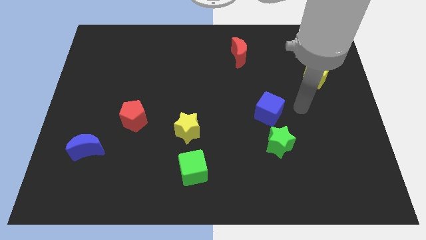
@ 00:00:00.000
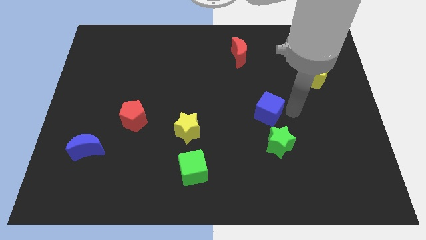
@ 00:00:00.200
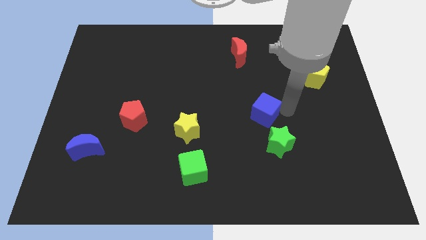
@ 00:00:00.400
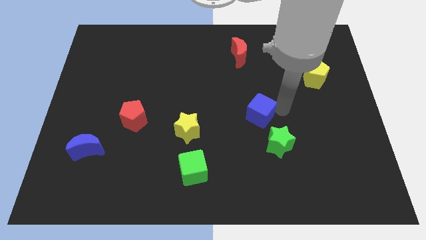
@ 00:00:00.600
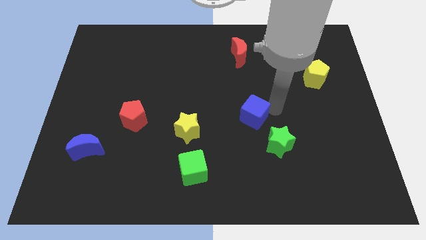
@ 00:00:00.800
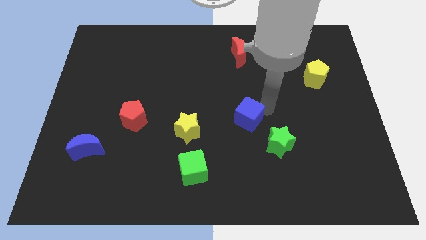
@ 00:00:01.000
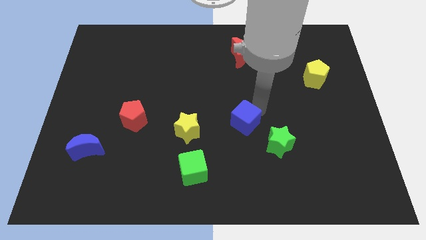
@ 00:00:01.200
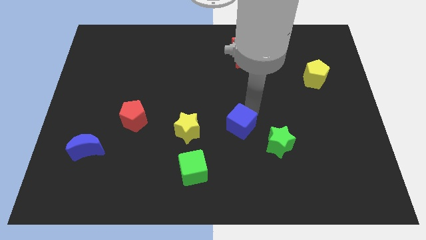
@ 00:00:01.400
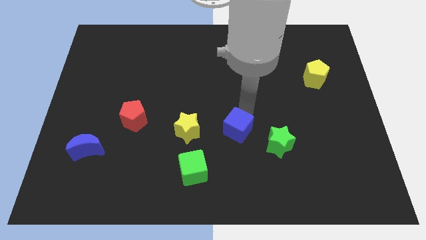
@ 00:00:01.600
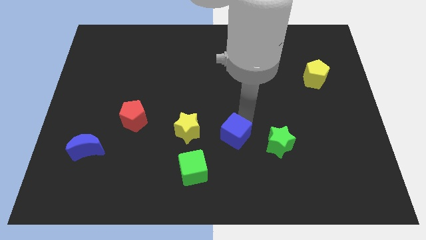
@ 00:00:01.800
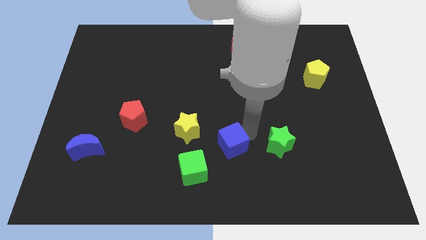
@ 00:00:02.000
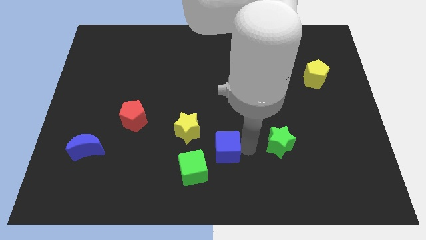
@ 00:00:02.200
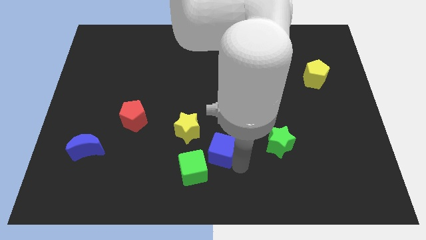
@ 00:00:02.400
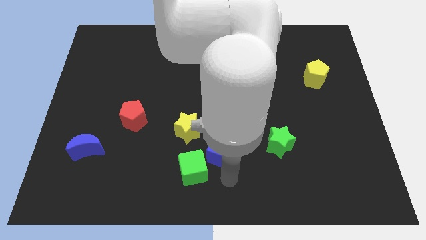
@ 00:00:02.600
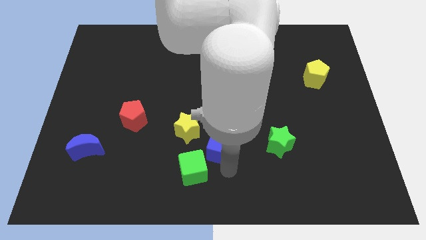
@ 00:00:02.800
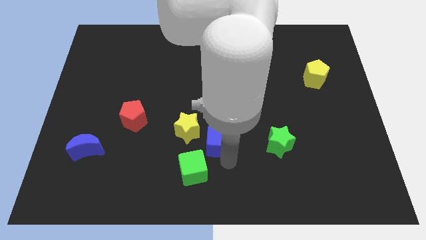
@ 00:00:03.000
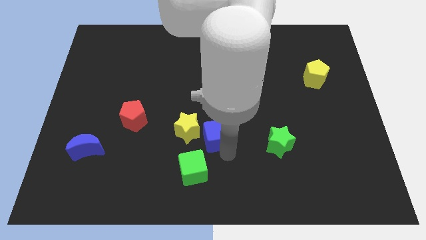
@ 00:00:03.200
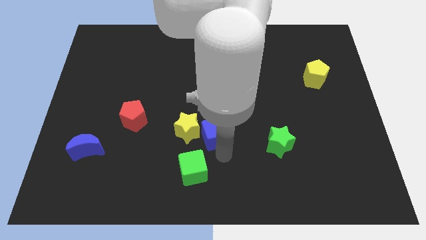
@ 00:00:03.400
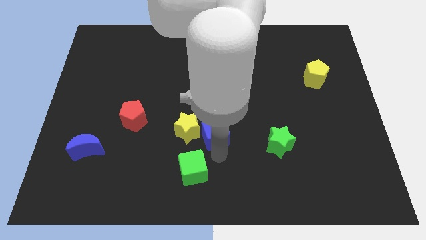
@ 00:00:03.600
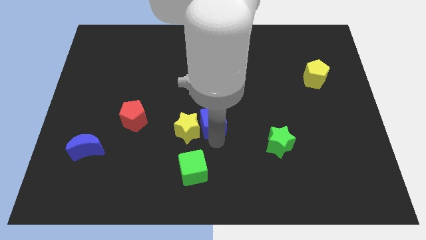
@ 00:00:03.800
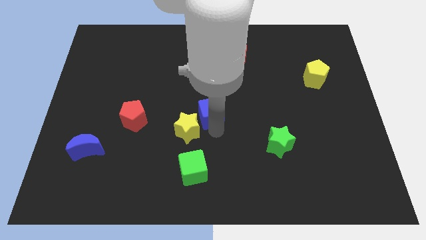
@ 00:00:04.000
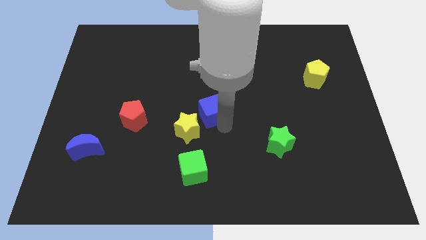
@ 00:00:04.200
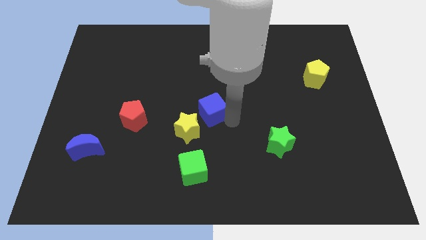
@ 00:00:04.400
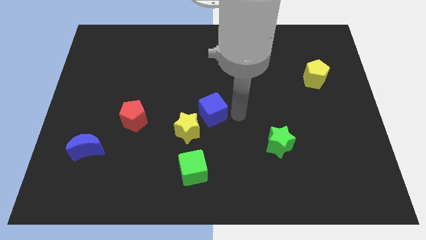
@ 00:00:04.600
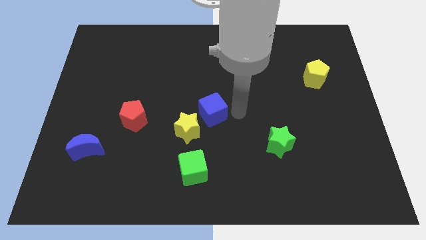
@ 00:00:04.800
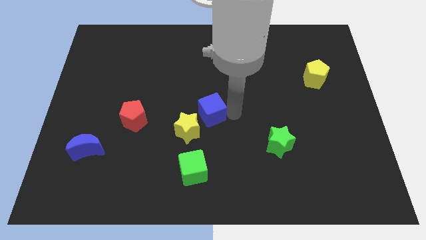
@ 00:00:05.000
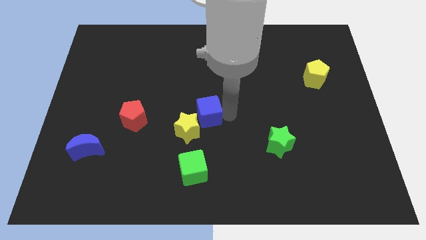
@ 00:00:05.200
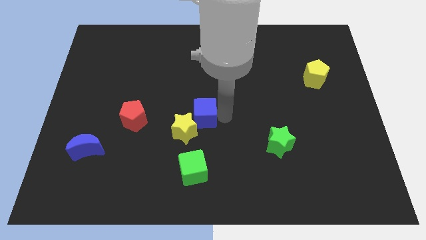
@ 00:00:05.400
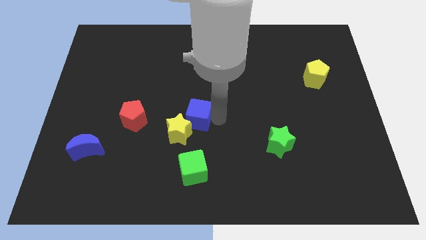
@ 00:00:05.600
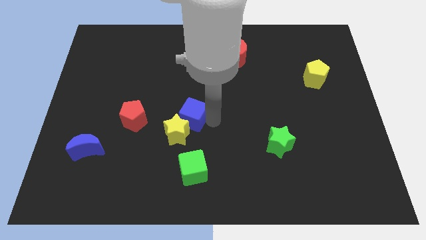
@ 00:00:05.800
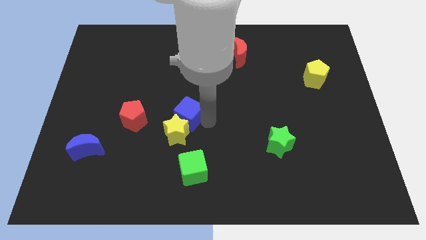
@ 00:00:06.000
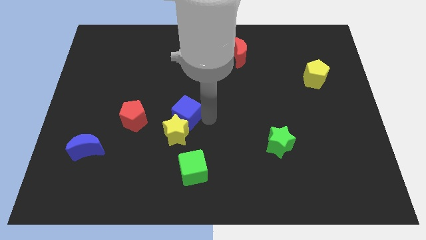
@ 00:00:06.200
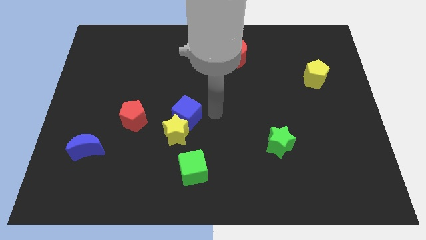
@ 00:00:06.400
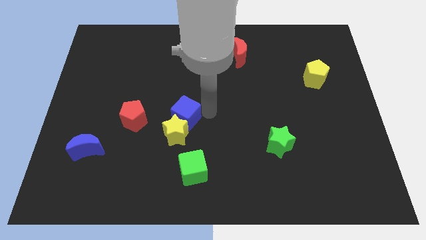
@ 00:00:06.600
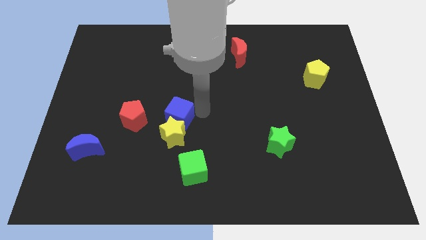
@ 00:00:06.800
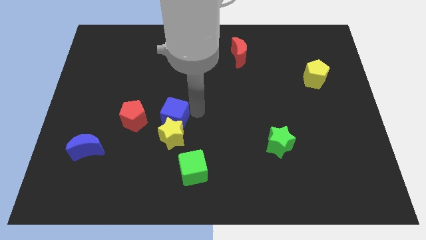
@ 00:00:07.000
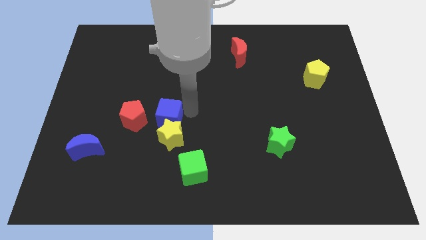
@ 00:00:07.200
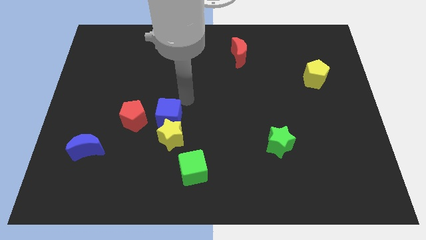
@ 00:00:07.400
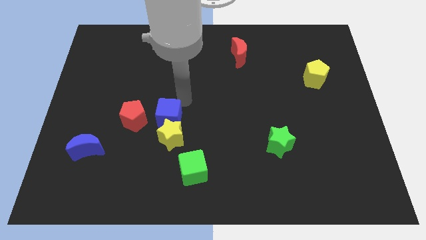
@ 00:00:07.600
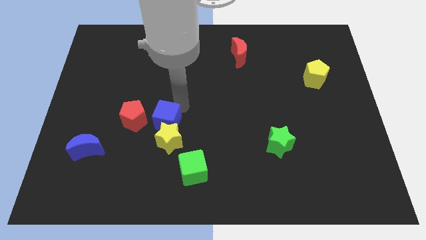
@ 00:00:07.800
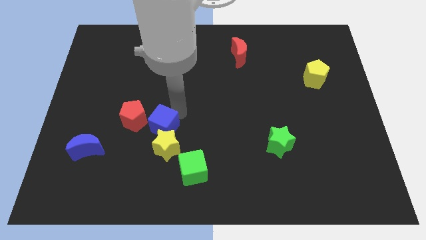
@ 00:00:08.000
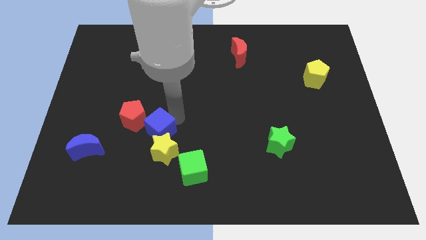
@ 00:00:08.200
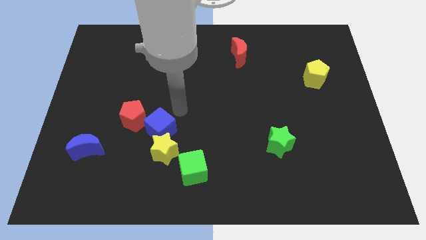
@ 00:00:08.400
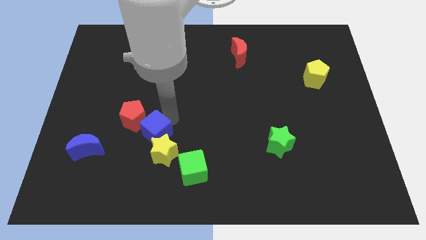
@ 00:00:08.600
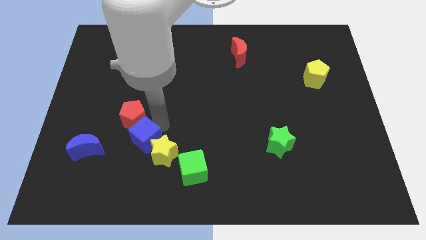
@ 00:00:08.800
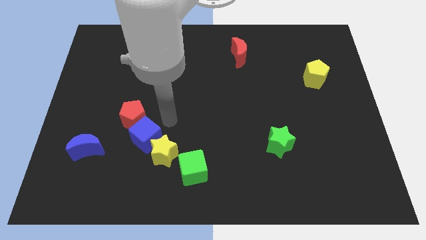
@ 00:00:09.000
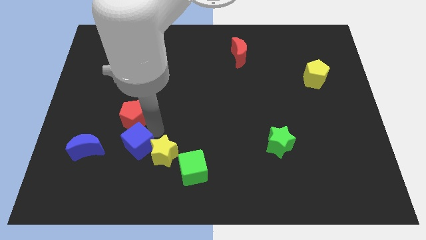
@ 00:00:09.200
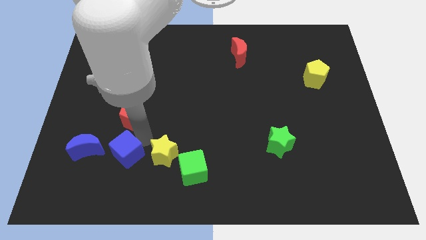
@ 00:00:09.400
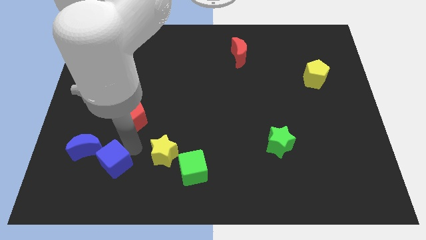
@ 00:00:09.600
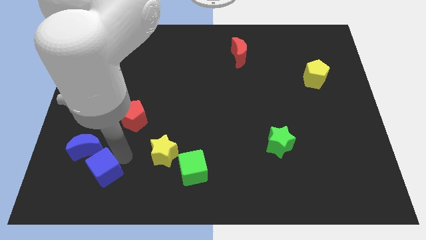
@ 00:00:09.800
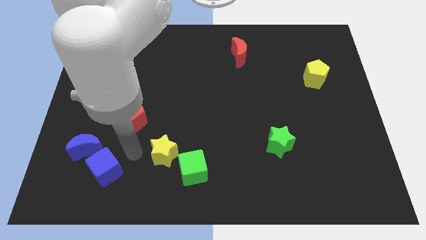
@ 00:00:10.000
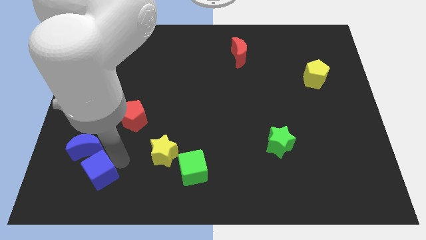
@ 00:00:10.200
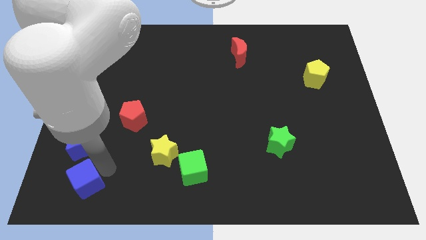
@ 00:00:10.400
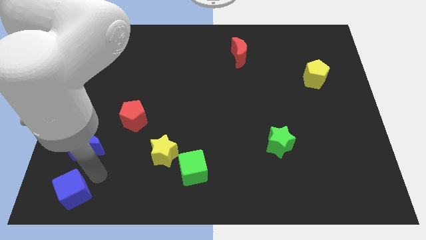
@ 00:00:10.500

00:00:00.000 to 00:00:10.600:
slide the blue cube to the bottom left corner
